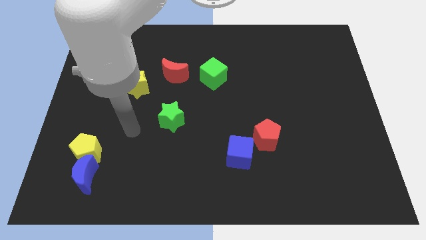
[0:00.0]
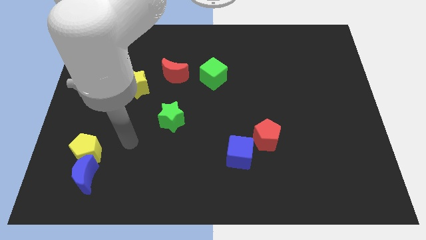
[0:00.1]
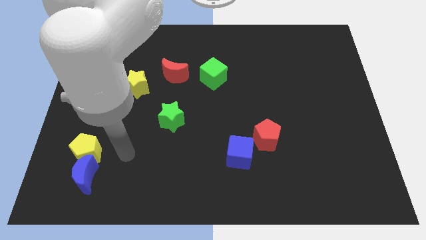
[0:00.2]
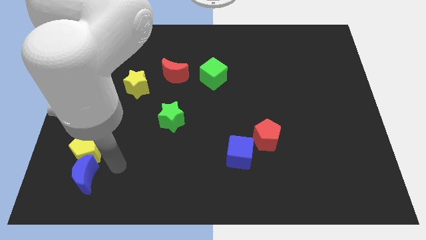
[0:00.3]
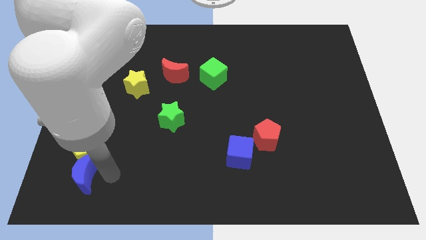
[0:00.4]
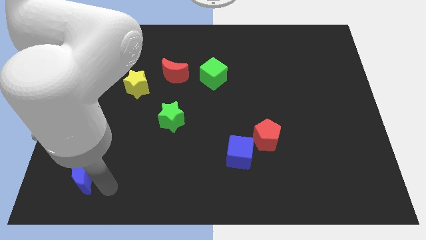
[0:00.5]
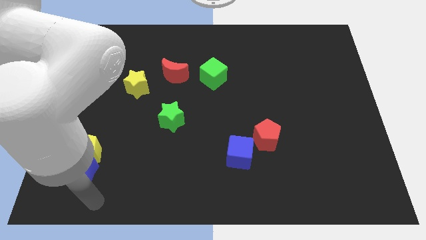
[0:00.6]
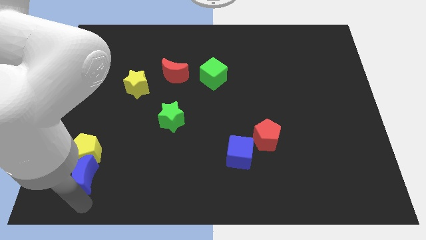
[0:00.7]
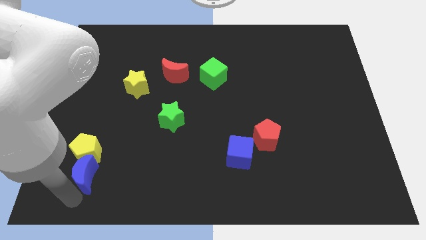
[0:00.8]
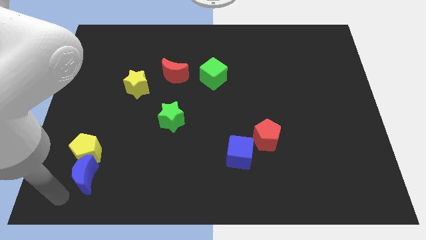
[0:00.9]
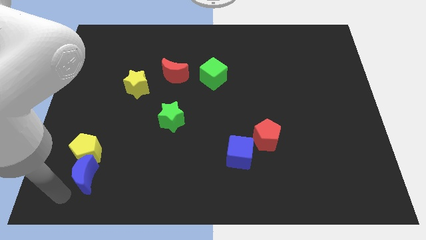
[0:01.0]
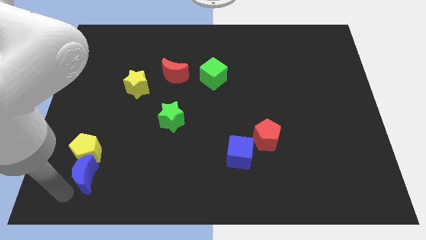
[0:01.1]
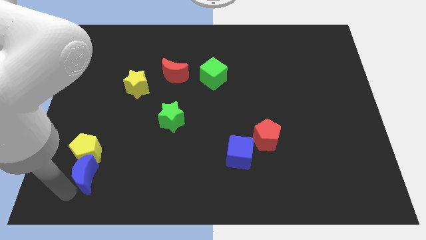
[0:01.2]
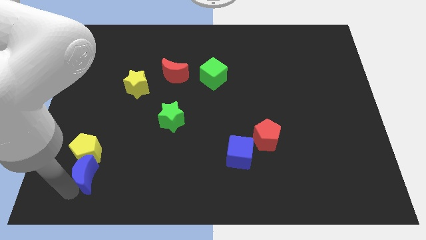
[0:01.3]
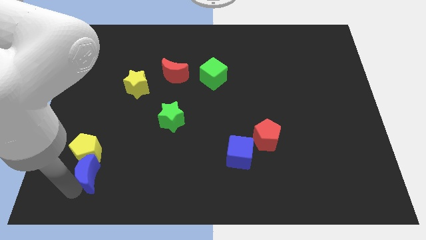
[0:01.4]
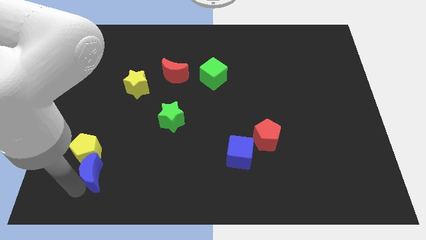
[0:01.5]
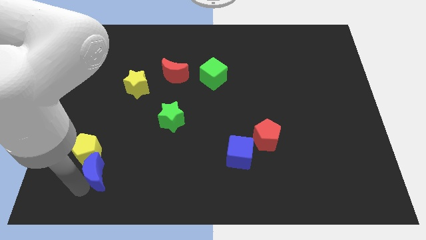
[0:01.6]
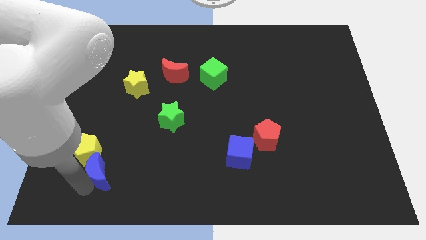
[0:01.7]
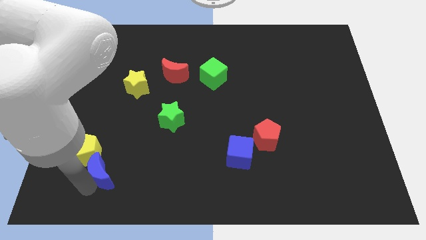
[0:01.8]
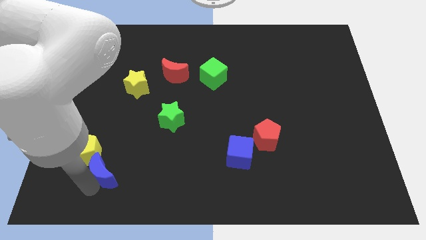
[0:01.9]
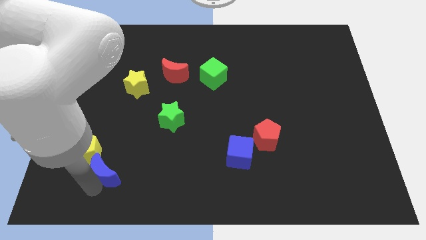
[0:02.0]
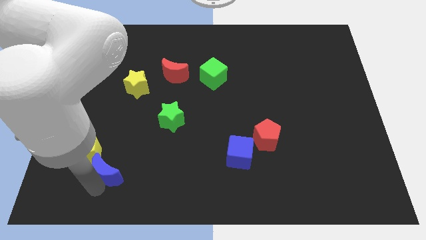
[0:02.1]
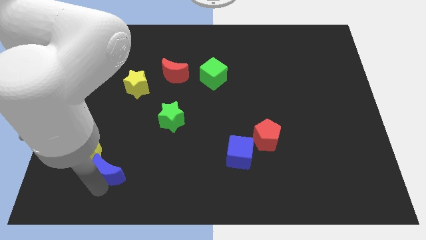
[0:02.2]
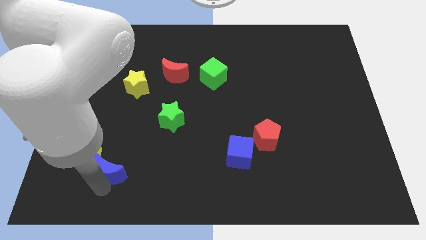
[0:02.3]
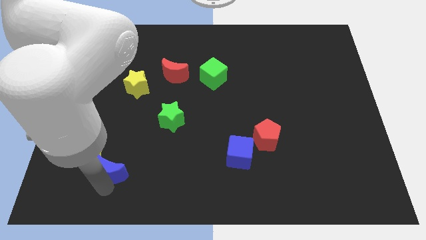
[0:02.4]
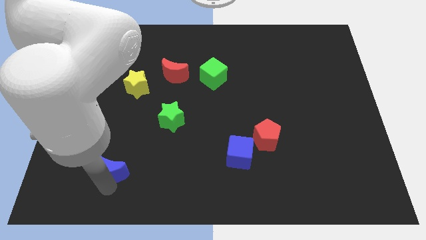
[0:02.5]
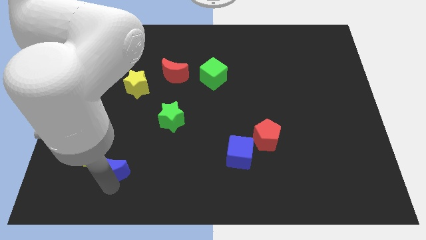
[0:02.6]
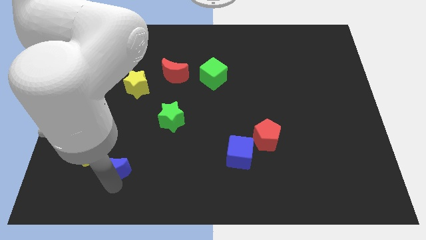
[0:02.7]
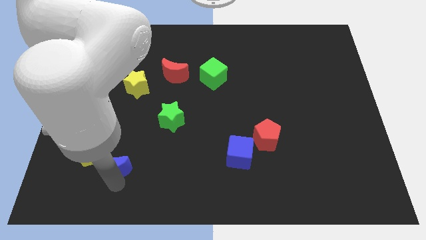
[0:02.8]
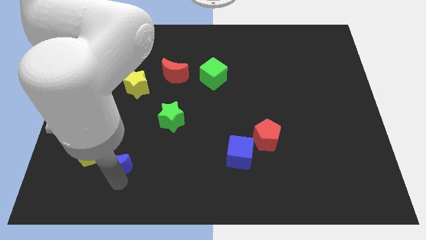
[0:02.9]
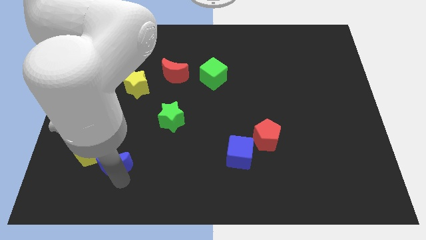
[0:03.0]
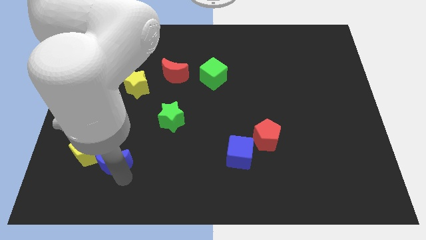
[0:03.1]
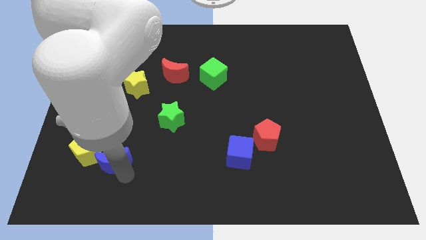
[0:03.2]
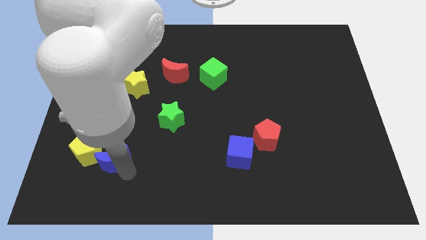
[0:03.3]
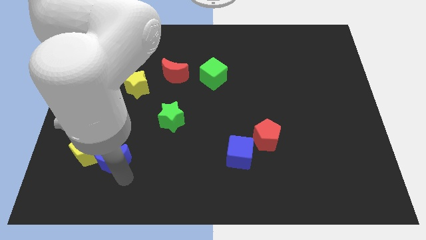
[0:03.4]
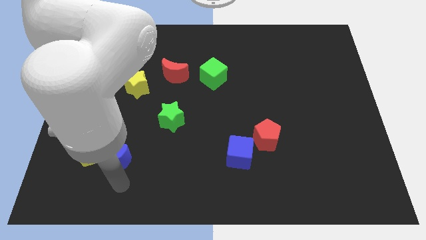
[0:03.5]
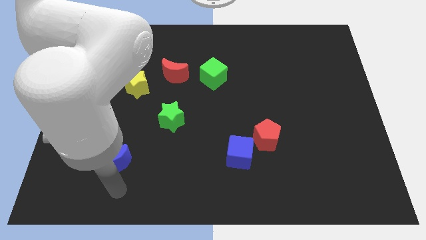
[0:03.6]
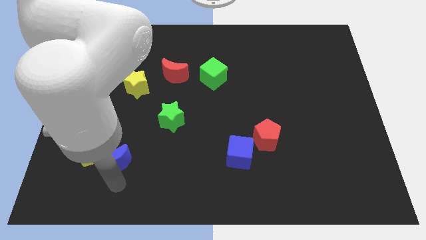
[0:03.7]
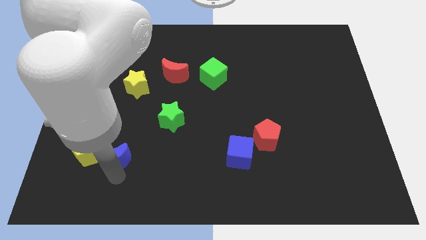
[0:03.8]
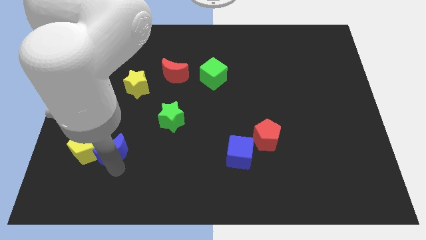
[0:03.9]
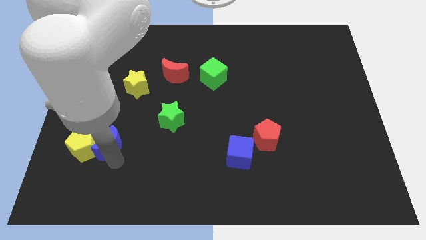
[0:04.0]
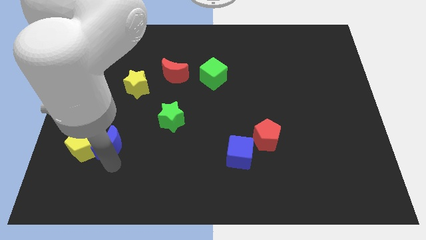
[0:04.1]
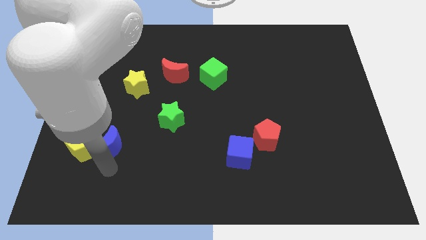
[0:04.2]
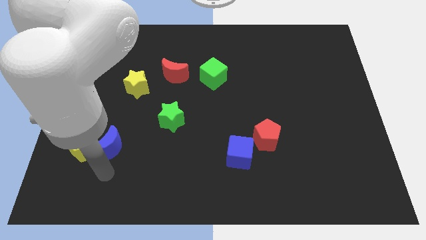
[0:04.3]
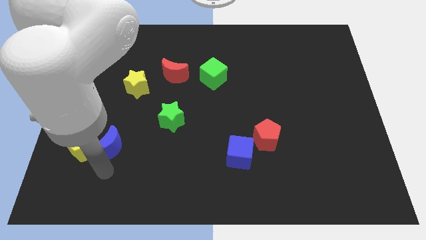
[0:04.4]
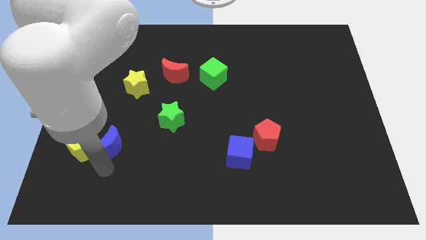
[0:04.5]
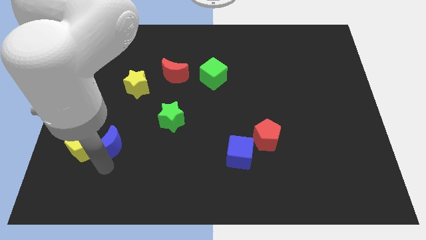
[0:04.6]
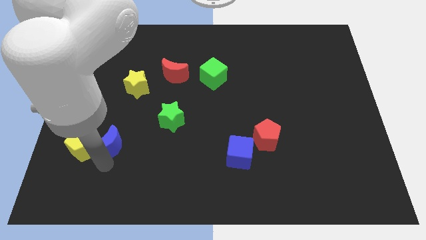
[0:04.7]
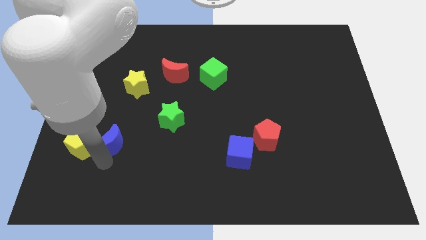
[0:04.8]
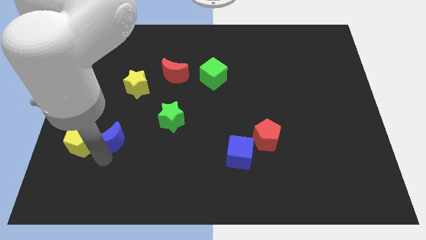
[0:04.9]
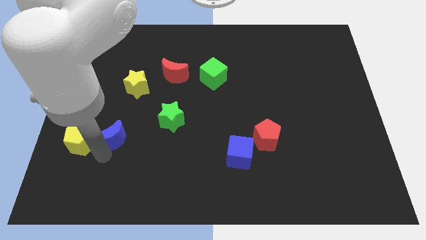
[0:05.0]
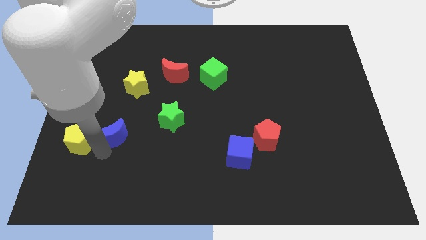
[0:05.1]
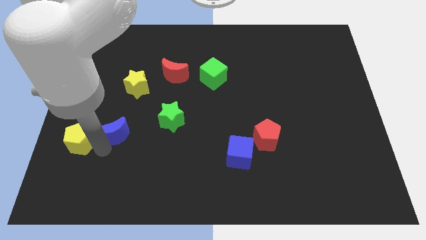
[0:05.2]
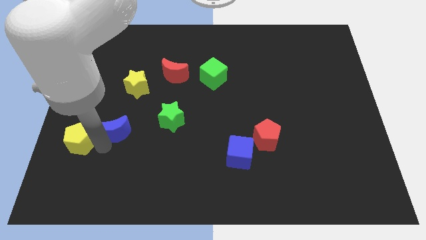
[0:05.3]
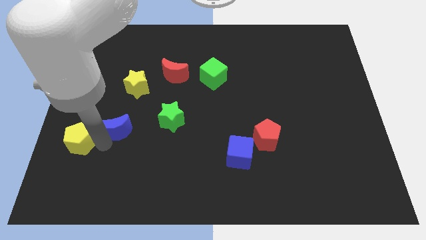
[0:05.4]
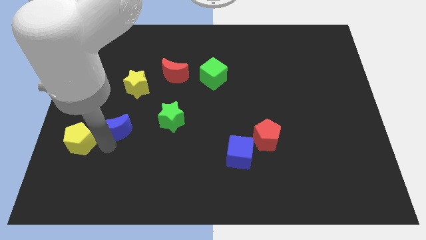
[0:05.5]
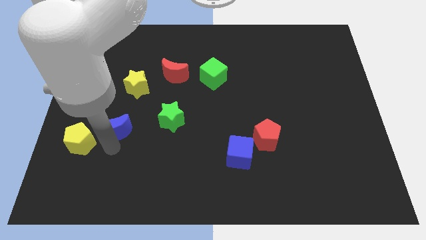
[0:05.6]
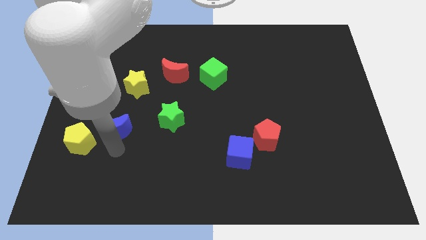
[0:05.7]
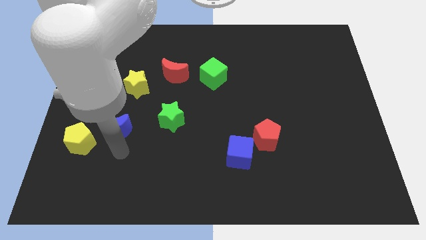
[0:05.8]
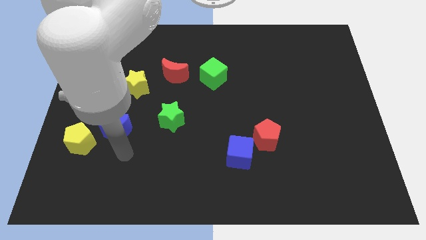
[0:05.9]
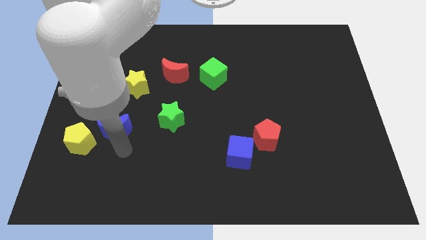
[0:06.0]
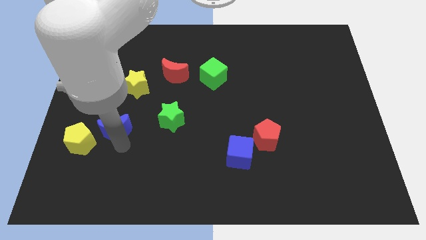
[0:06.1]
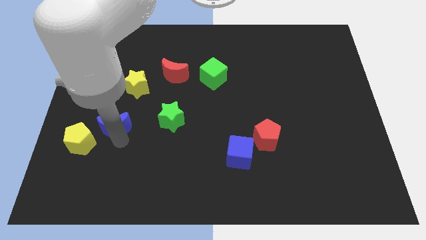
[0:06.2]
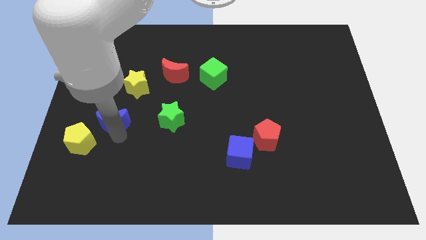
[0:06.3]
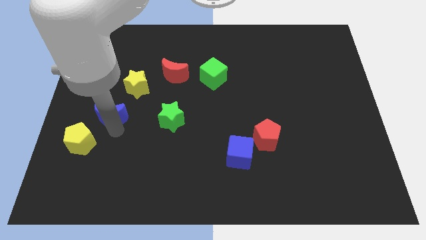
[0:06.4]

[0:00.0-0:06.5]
slide the blue moon to the bottom left side of the yellow star

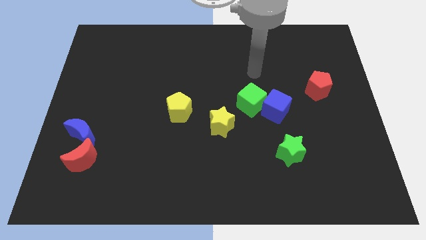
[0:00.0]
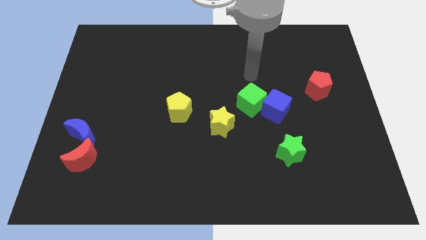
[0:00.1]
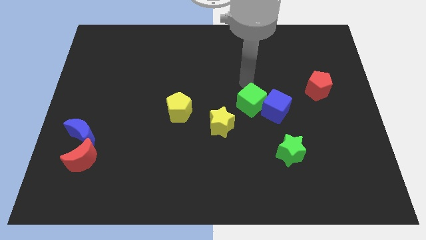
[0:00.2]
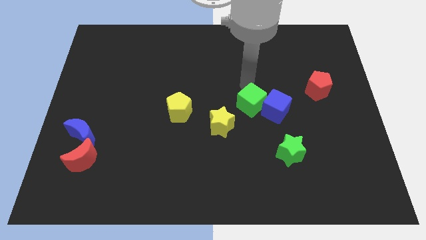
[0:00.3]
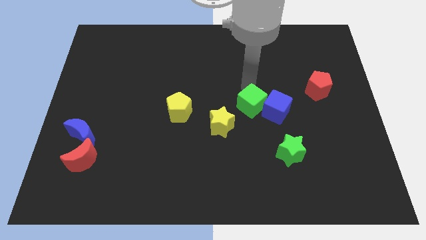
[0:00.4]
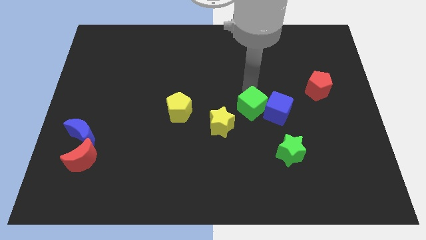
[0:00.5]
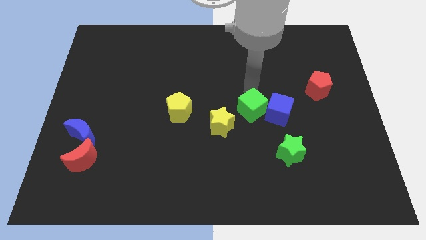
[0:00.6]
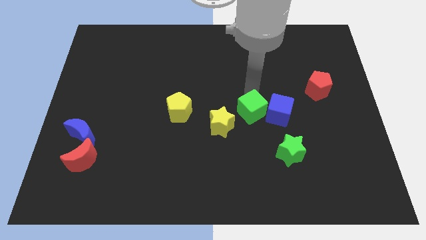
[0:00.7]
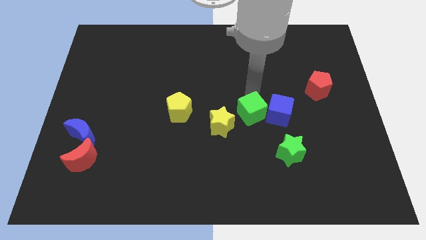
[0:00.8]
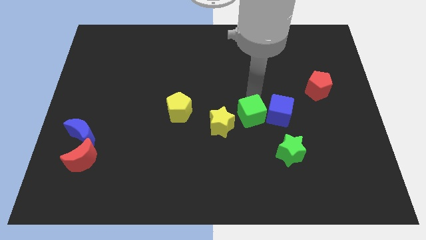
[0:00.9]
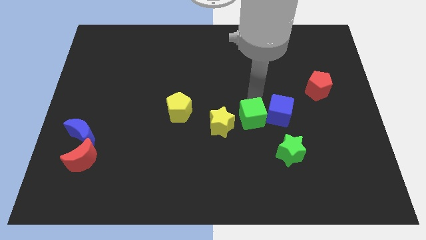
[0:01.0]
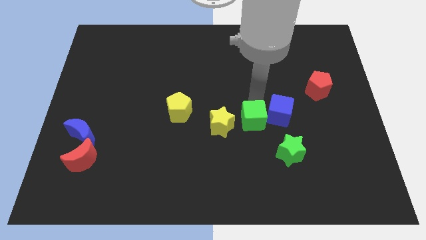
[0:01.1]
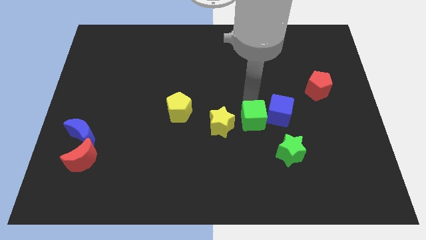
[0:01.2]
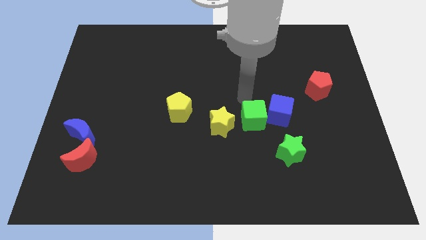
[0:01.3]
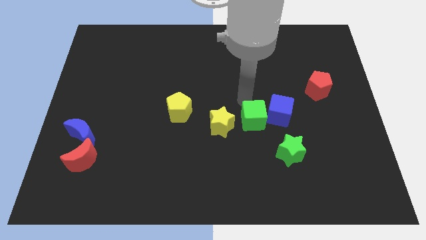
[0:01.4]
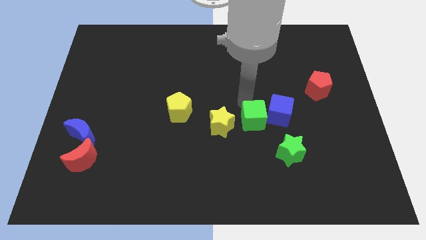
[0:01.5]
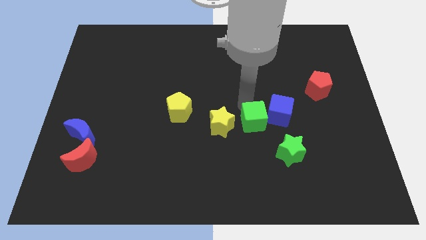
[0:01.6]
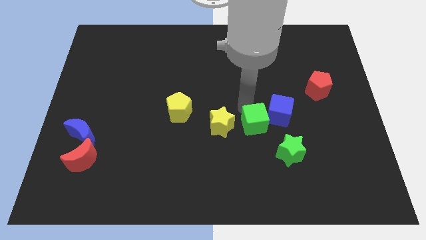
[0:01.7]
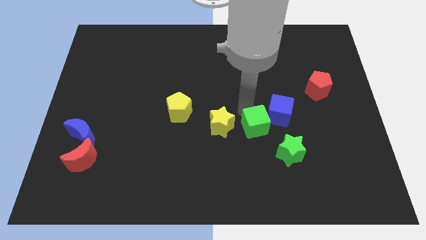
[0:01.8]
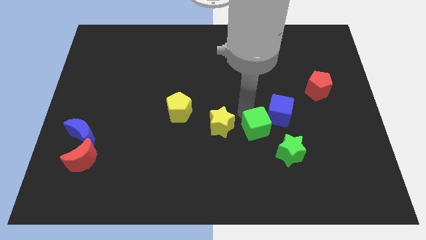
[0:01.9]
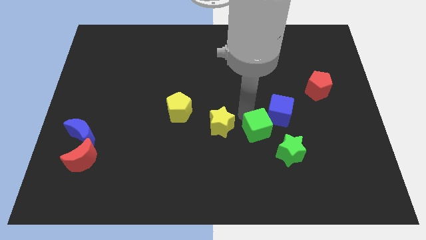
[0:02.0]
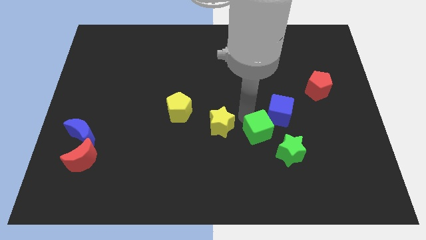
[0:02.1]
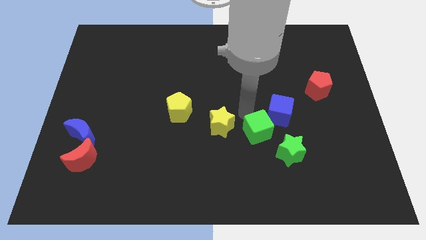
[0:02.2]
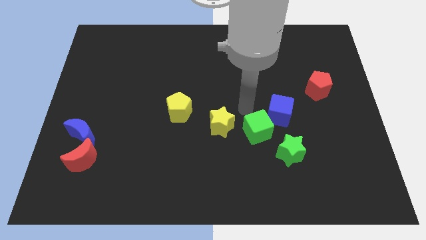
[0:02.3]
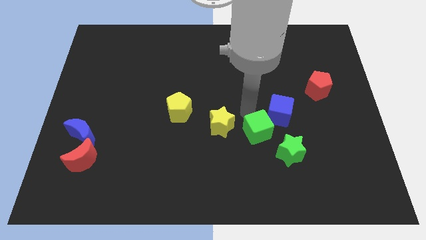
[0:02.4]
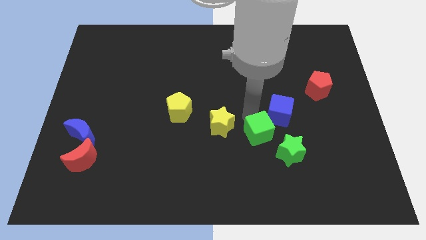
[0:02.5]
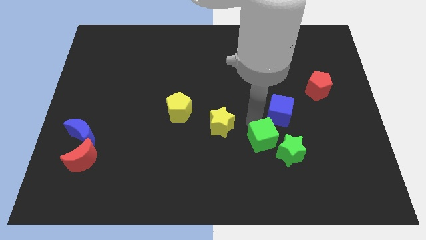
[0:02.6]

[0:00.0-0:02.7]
slide the green cube to the bottom of the blue cube
